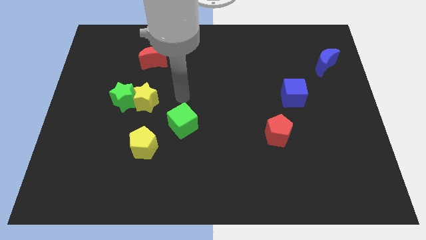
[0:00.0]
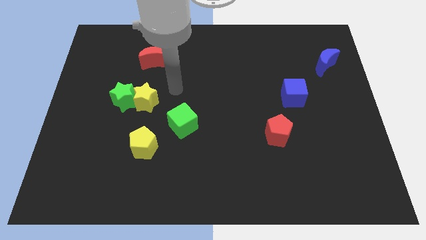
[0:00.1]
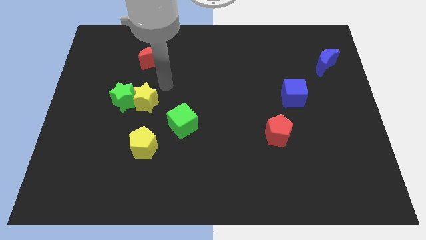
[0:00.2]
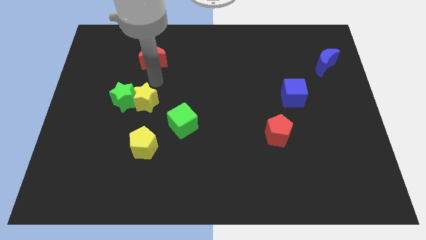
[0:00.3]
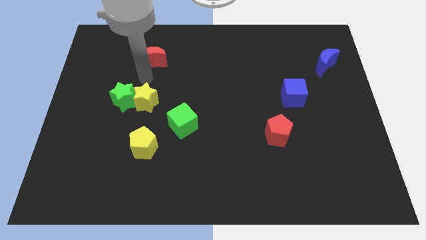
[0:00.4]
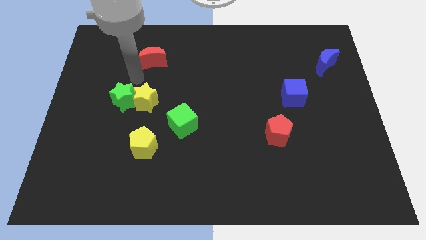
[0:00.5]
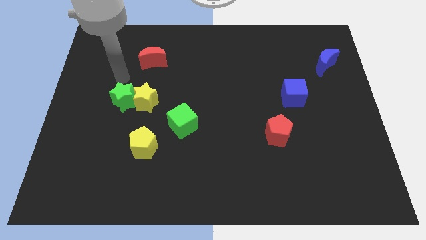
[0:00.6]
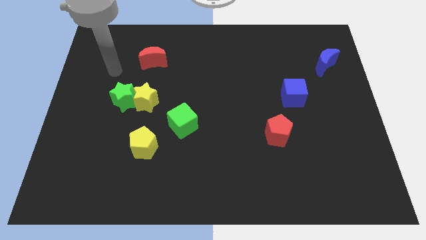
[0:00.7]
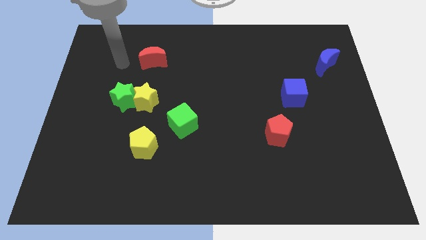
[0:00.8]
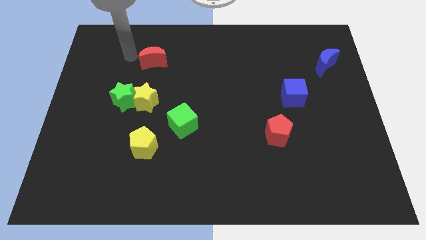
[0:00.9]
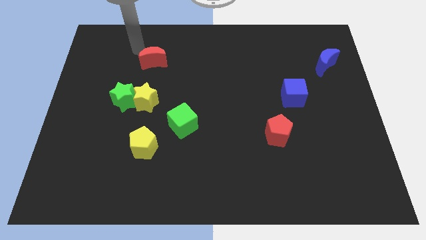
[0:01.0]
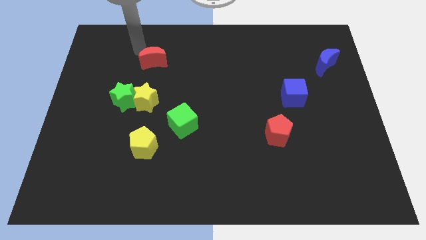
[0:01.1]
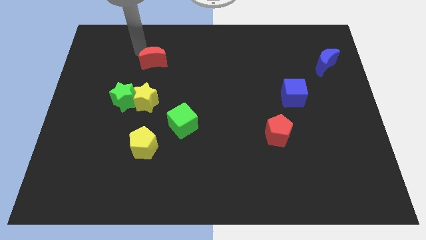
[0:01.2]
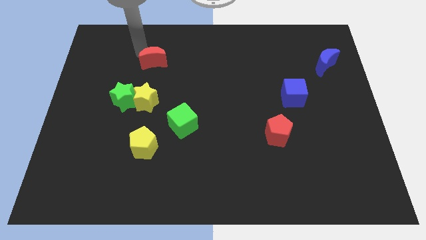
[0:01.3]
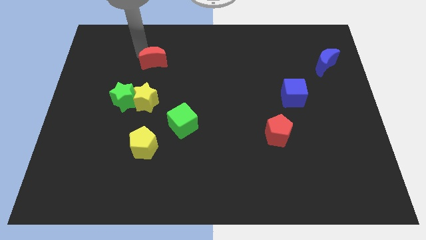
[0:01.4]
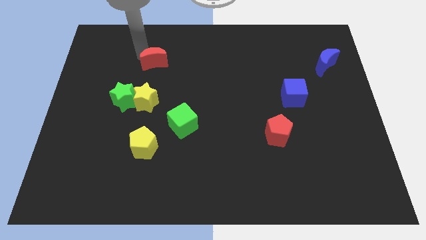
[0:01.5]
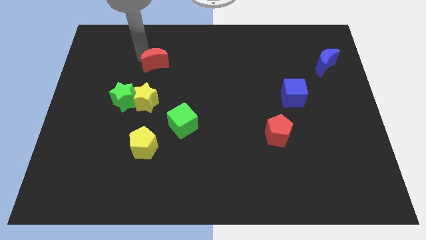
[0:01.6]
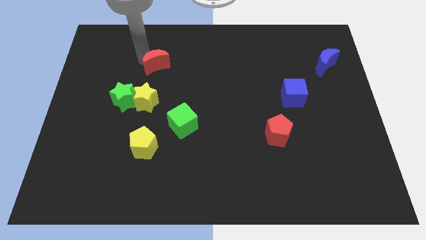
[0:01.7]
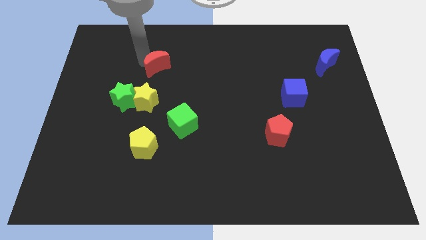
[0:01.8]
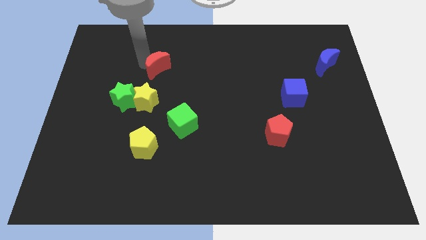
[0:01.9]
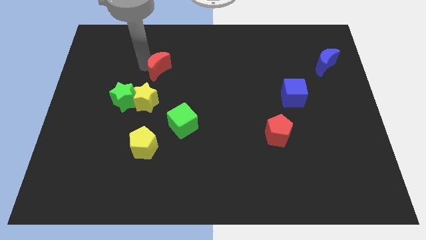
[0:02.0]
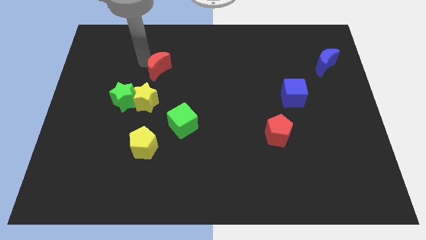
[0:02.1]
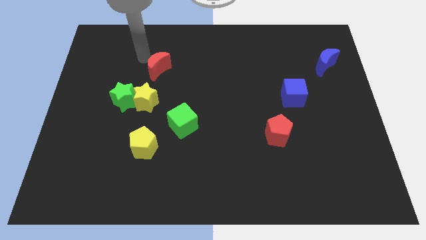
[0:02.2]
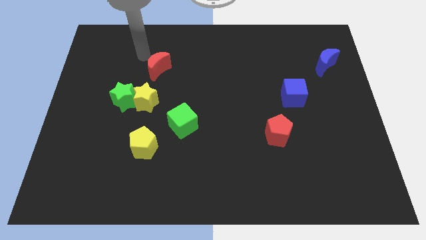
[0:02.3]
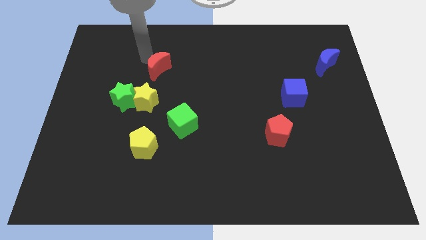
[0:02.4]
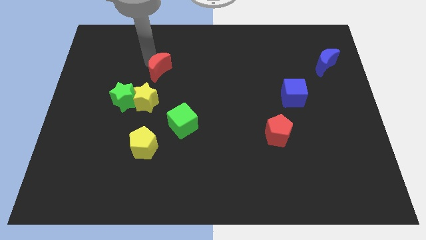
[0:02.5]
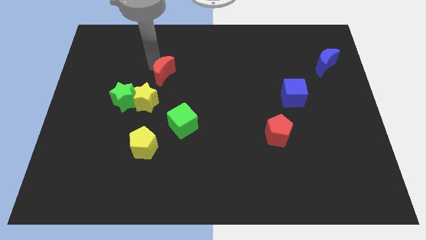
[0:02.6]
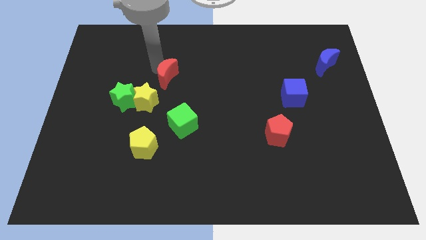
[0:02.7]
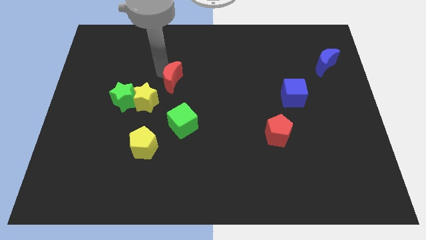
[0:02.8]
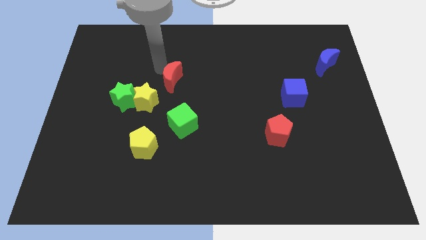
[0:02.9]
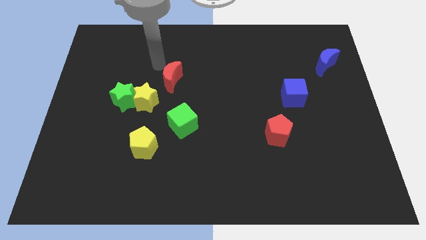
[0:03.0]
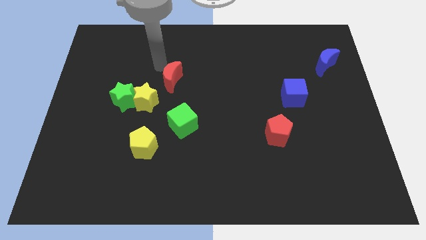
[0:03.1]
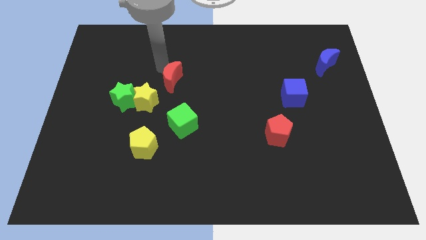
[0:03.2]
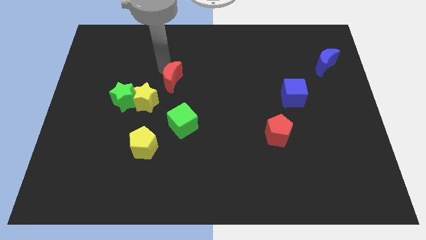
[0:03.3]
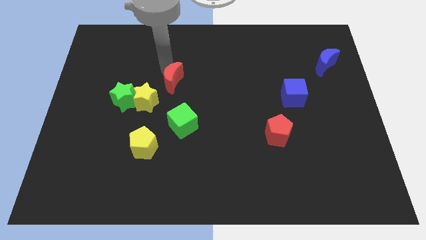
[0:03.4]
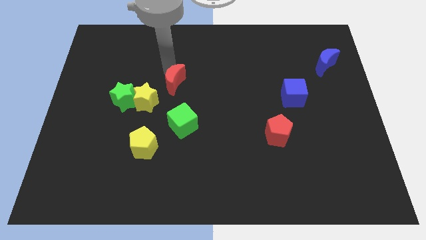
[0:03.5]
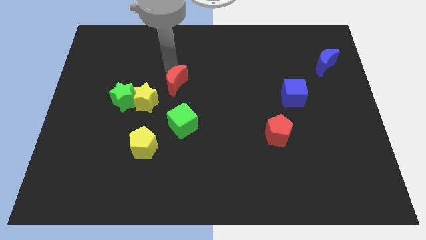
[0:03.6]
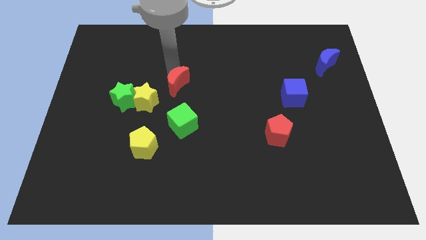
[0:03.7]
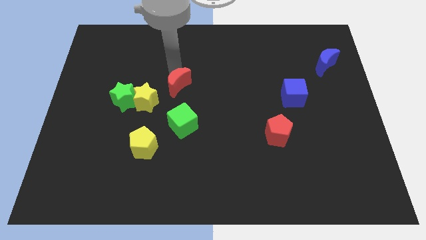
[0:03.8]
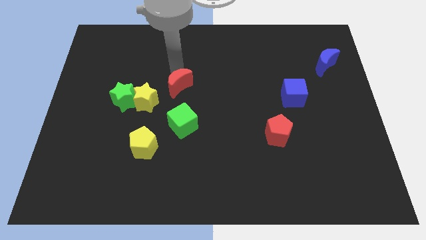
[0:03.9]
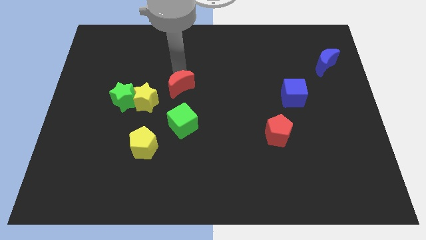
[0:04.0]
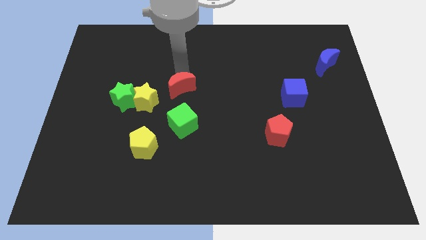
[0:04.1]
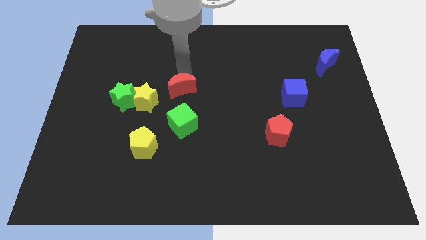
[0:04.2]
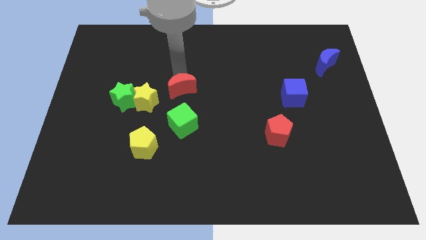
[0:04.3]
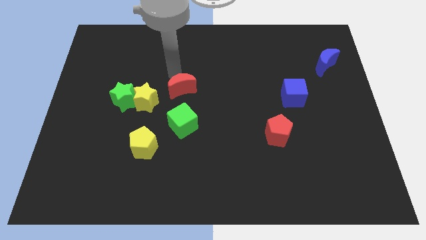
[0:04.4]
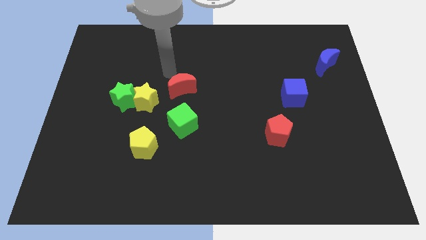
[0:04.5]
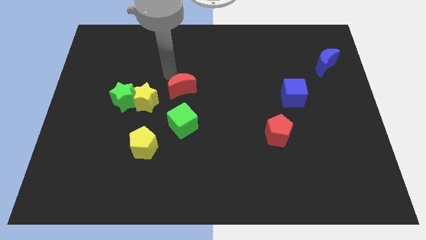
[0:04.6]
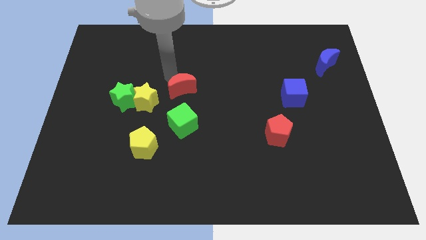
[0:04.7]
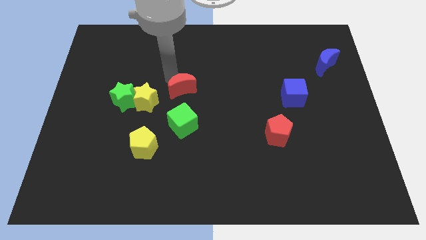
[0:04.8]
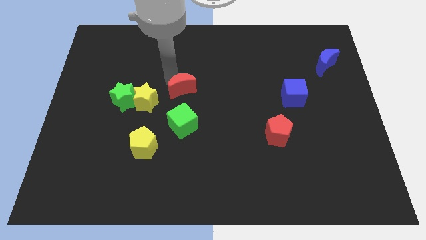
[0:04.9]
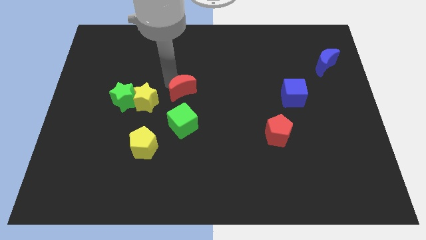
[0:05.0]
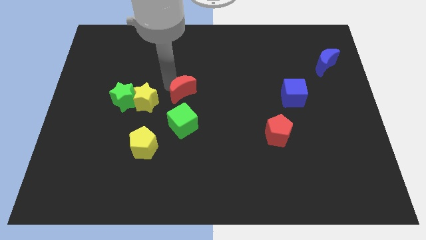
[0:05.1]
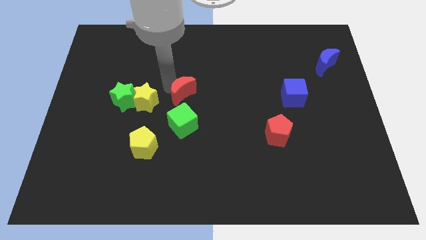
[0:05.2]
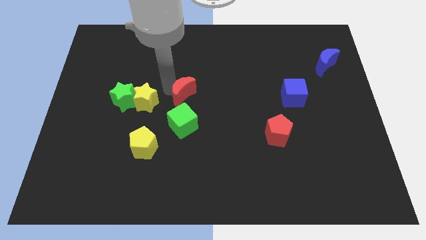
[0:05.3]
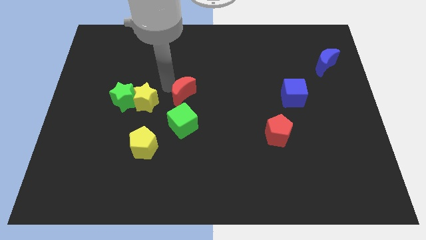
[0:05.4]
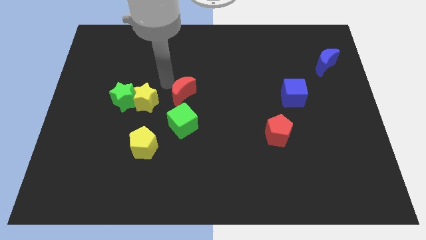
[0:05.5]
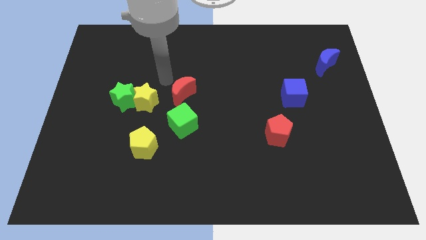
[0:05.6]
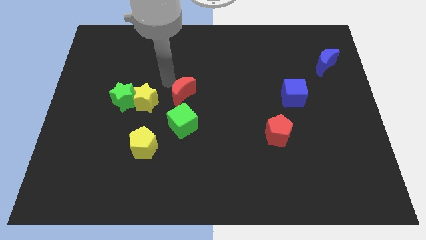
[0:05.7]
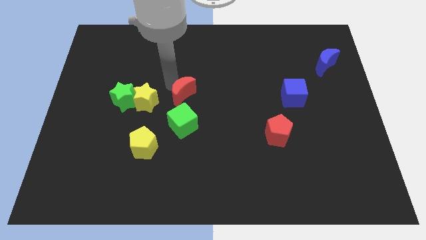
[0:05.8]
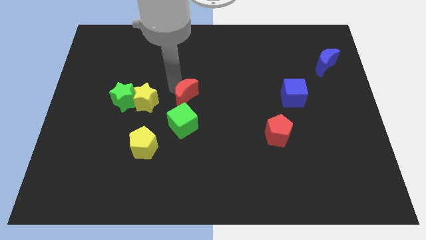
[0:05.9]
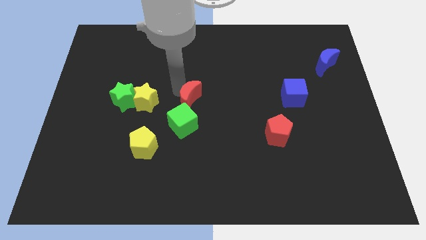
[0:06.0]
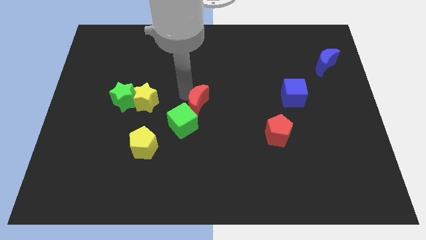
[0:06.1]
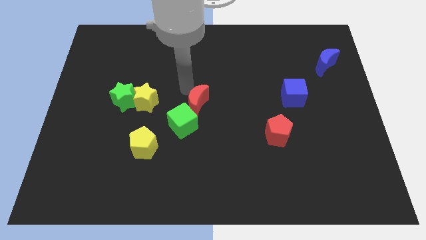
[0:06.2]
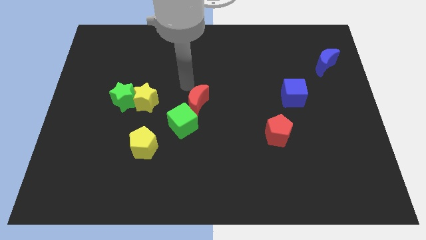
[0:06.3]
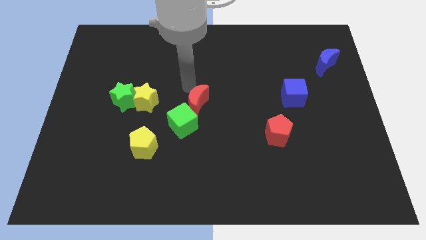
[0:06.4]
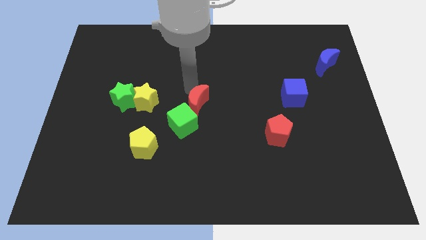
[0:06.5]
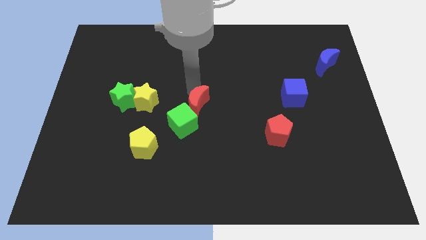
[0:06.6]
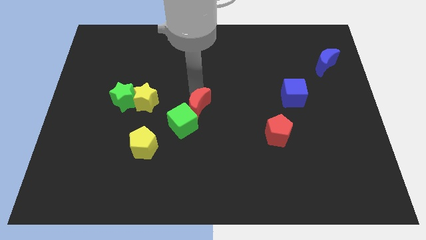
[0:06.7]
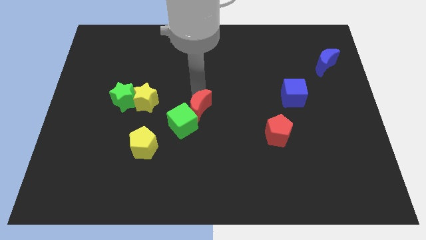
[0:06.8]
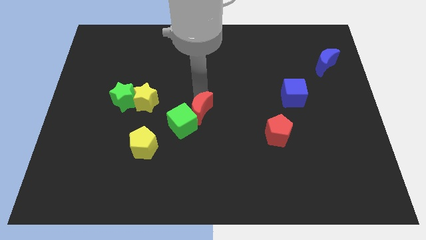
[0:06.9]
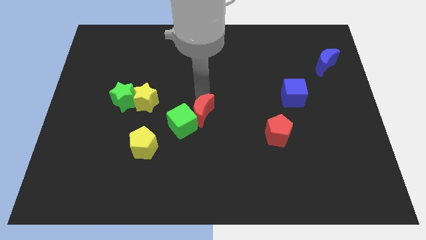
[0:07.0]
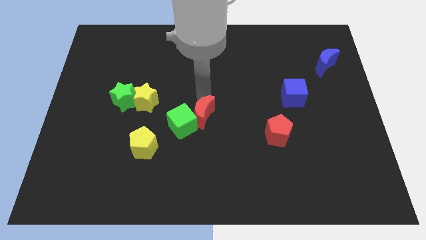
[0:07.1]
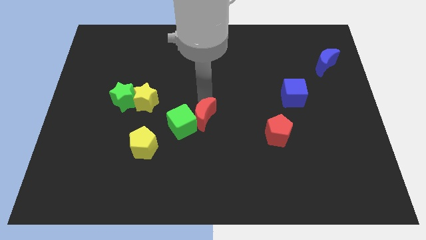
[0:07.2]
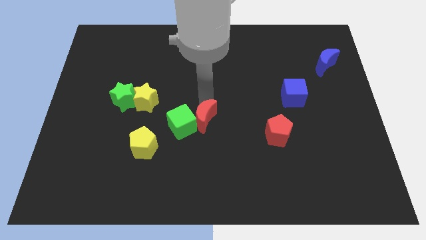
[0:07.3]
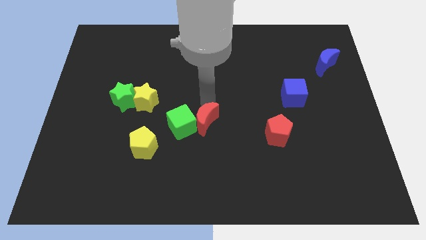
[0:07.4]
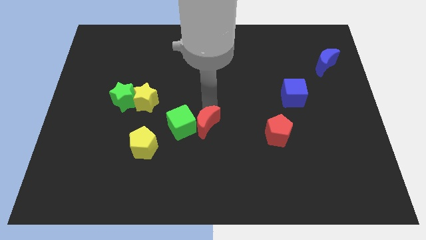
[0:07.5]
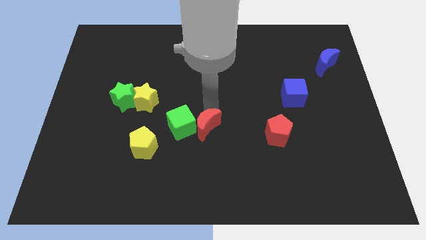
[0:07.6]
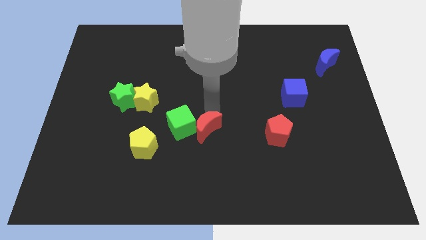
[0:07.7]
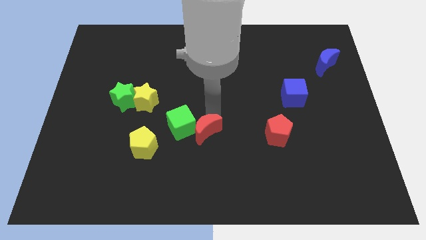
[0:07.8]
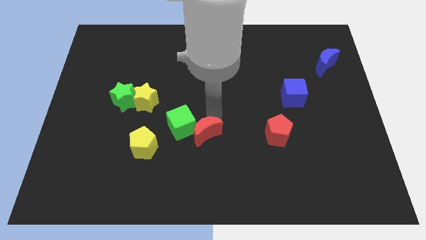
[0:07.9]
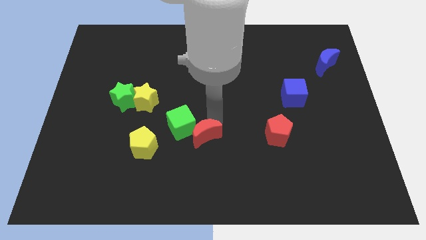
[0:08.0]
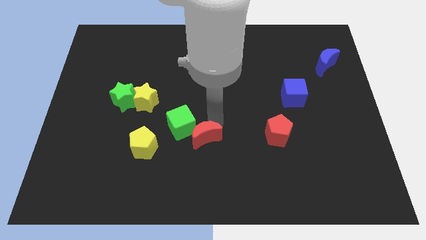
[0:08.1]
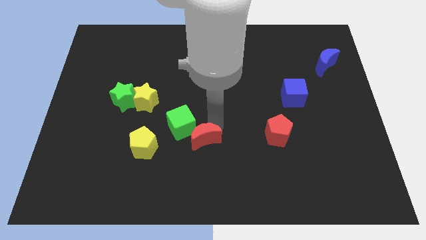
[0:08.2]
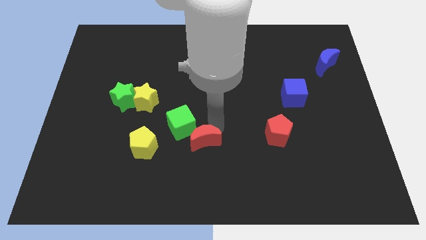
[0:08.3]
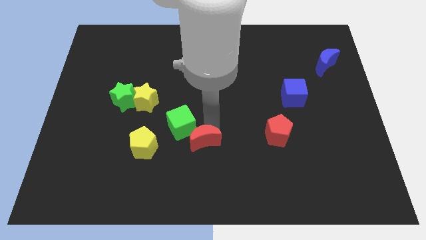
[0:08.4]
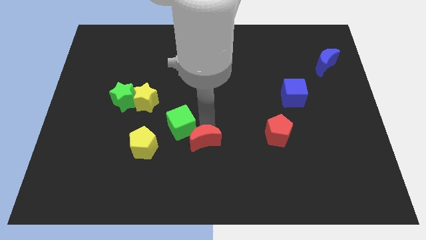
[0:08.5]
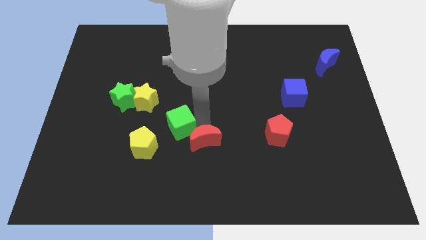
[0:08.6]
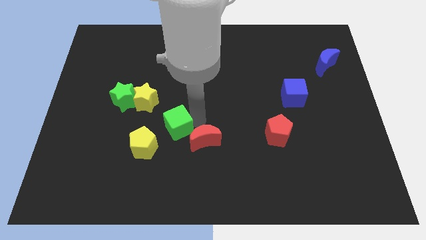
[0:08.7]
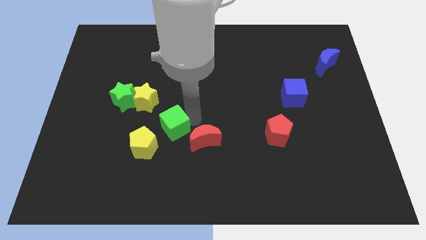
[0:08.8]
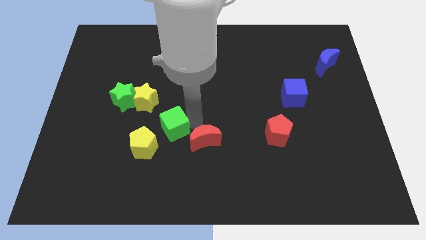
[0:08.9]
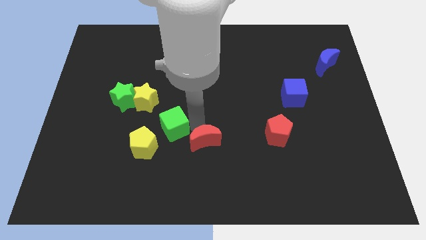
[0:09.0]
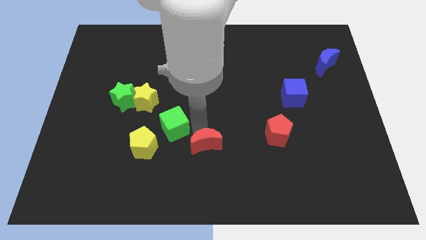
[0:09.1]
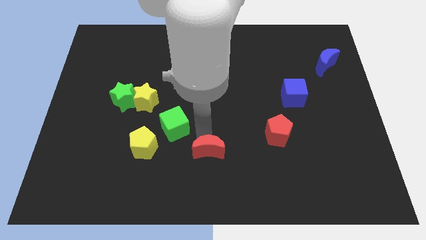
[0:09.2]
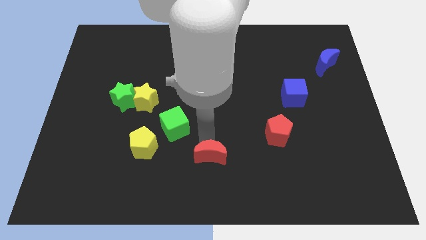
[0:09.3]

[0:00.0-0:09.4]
move the red moon to the bottom side
